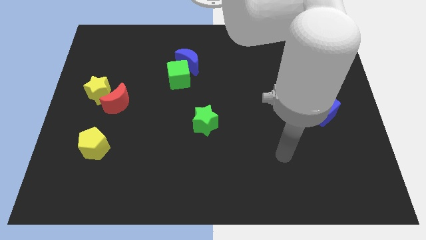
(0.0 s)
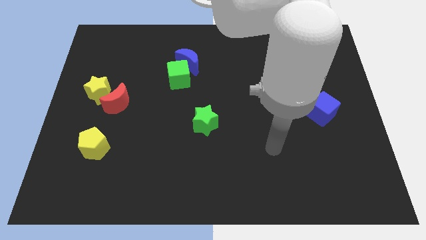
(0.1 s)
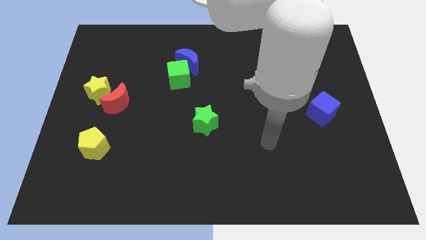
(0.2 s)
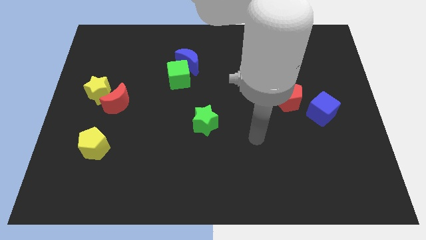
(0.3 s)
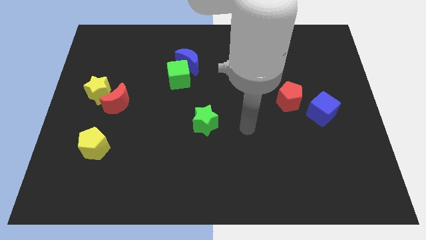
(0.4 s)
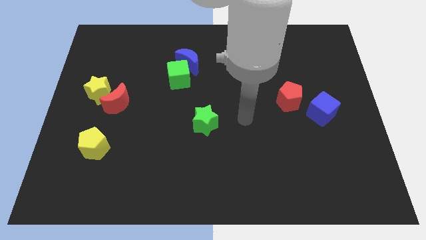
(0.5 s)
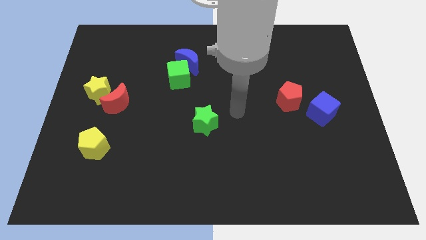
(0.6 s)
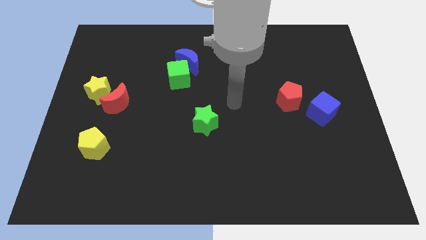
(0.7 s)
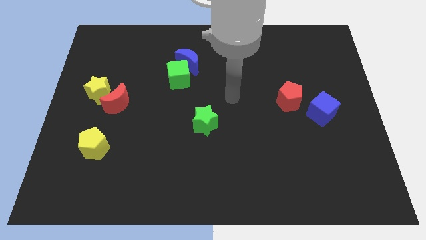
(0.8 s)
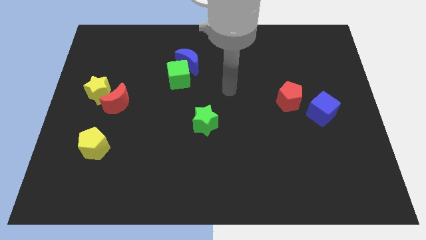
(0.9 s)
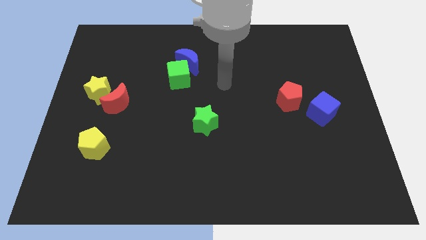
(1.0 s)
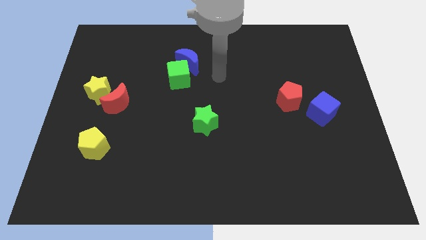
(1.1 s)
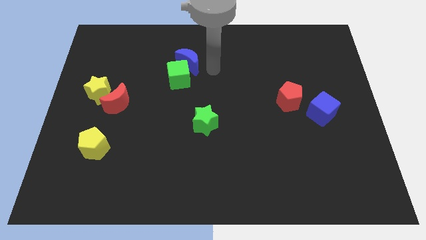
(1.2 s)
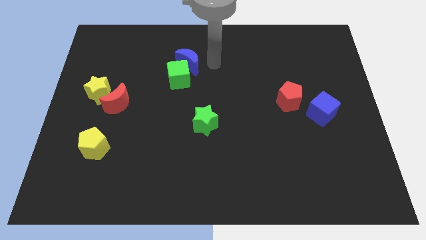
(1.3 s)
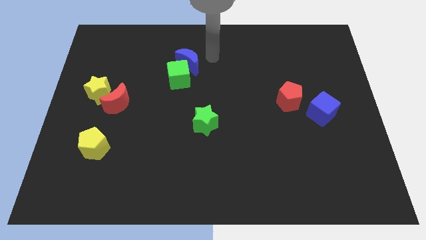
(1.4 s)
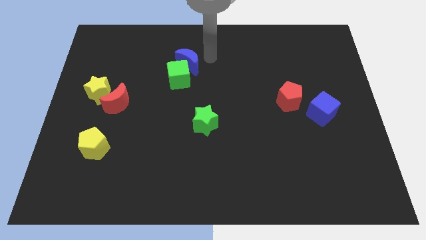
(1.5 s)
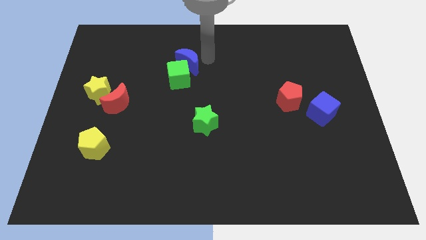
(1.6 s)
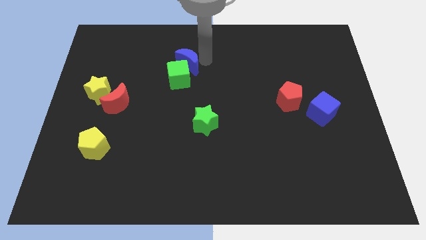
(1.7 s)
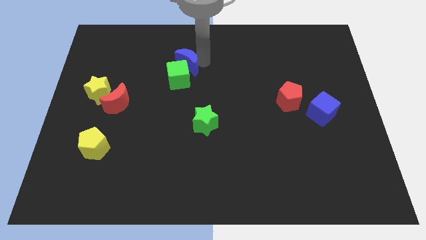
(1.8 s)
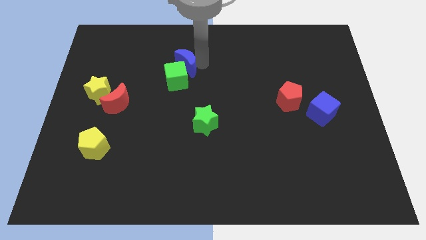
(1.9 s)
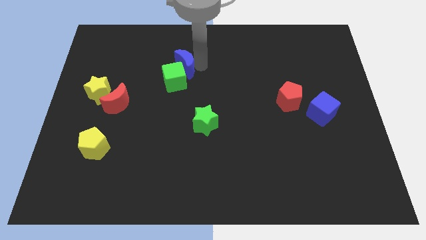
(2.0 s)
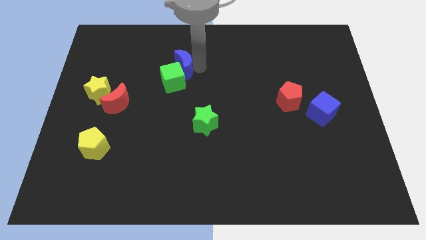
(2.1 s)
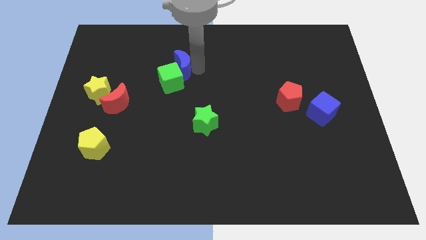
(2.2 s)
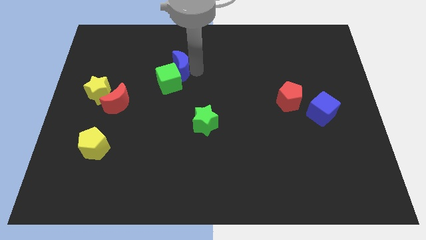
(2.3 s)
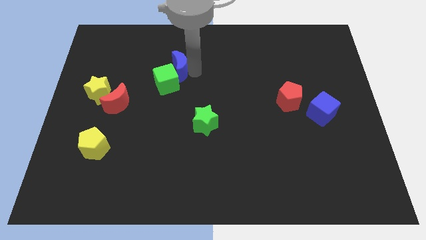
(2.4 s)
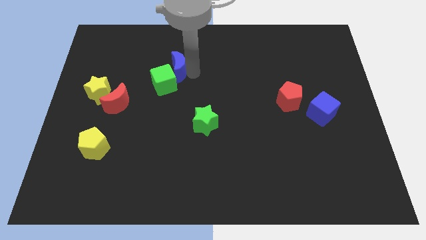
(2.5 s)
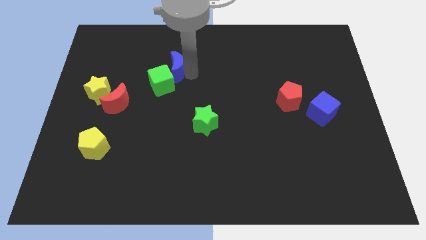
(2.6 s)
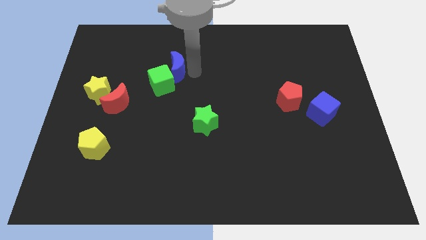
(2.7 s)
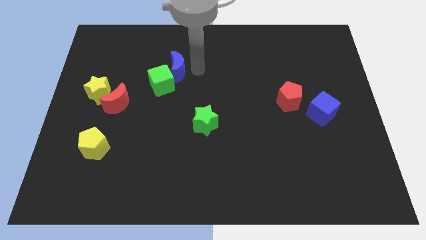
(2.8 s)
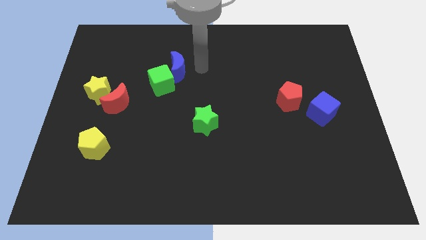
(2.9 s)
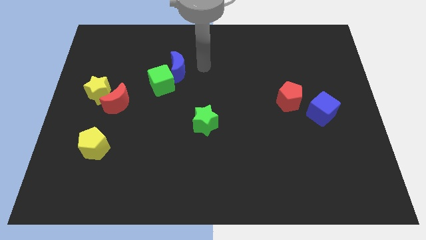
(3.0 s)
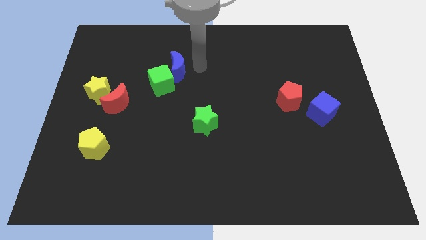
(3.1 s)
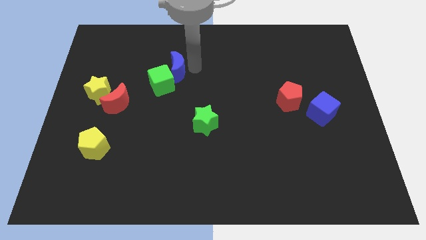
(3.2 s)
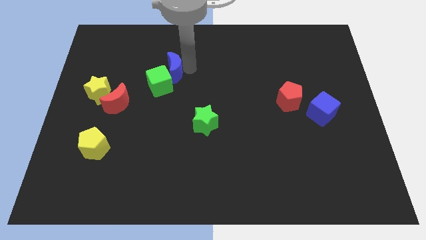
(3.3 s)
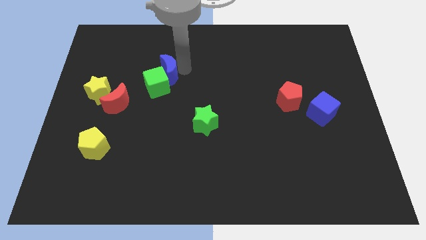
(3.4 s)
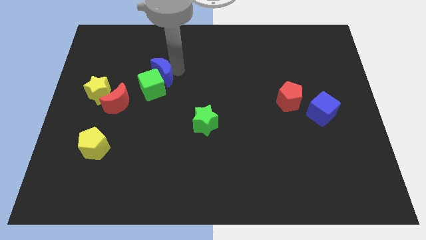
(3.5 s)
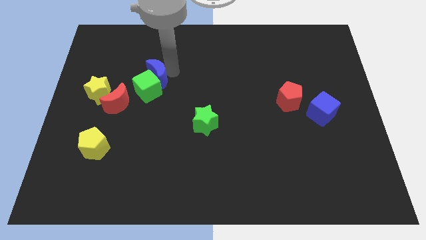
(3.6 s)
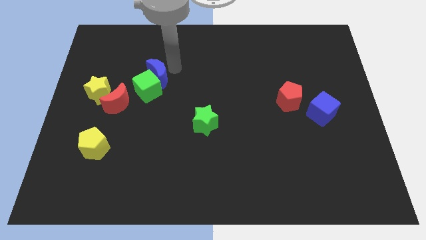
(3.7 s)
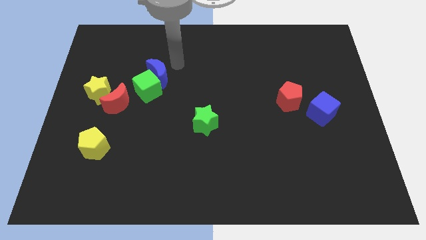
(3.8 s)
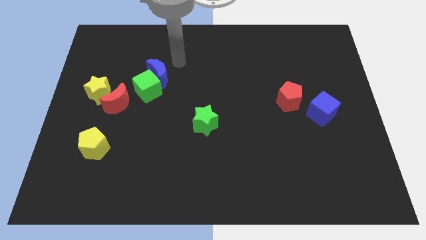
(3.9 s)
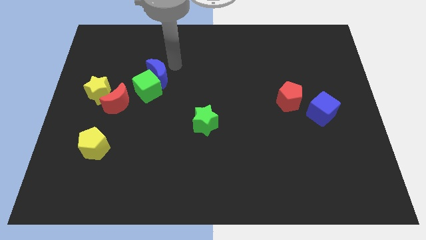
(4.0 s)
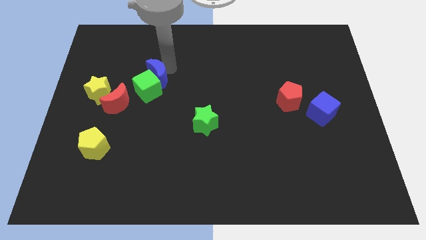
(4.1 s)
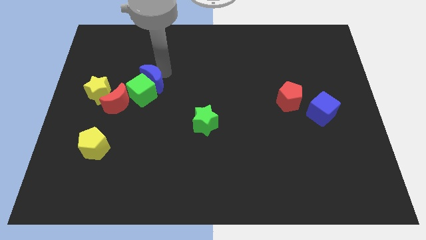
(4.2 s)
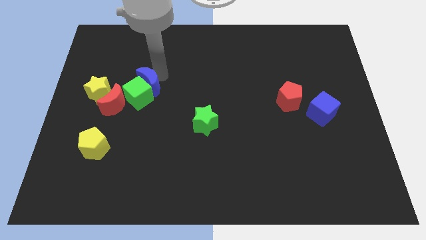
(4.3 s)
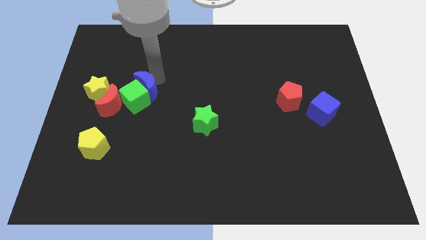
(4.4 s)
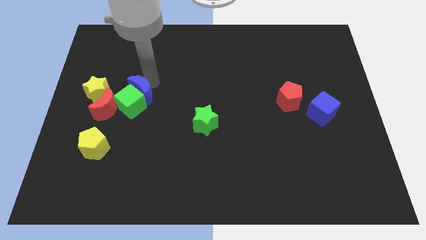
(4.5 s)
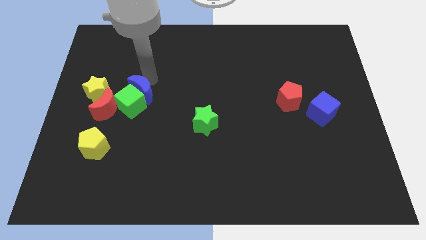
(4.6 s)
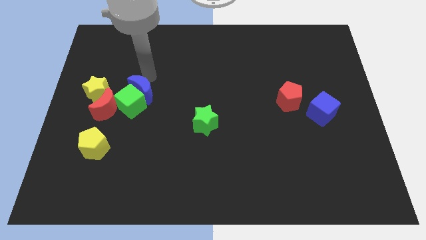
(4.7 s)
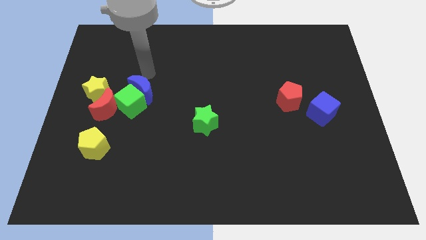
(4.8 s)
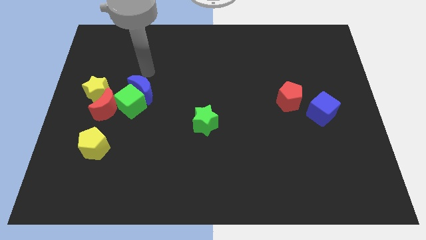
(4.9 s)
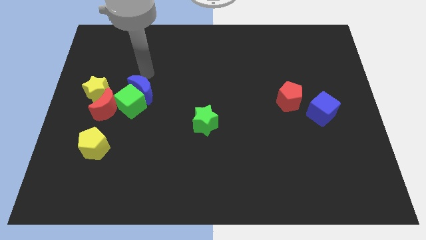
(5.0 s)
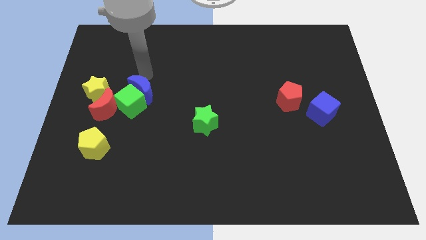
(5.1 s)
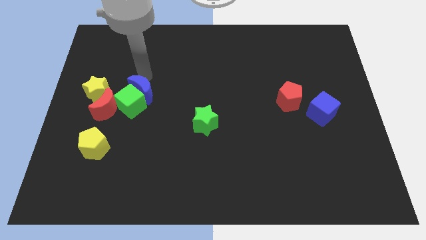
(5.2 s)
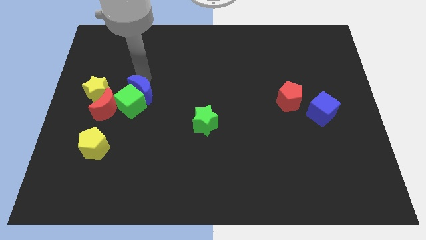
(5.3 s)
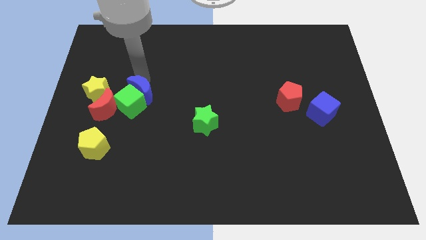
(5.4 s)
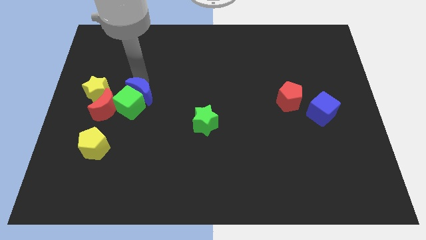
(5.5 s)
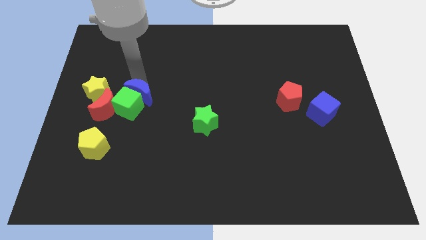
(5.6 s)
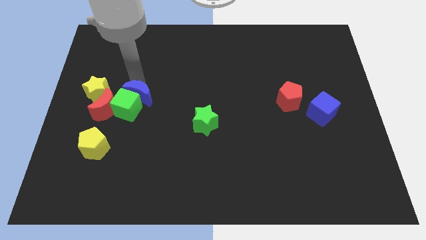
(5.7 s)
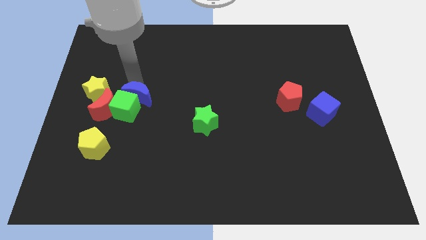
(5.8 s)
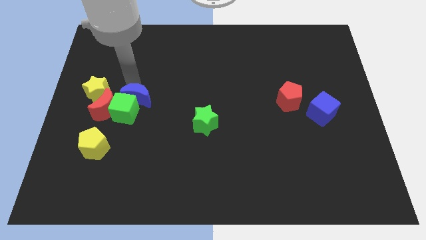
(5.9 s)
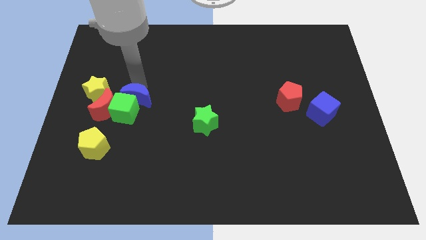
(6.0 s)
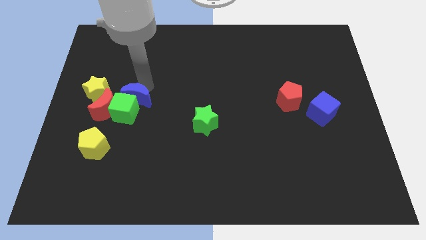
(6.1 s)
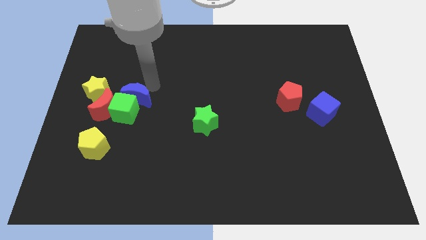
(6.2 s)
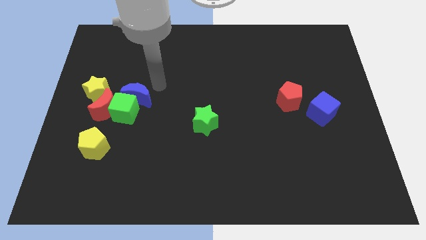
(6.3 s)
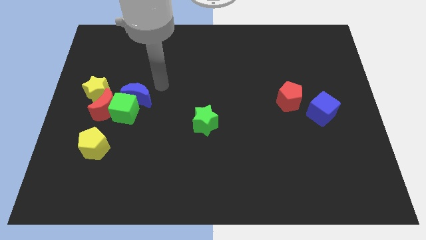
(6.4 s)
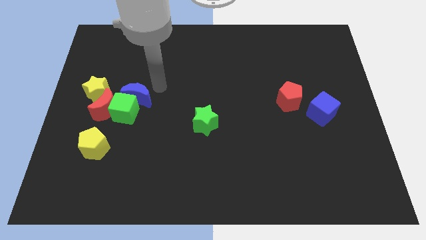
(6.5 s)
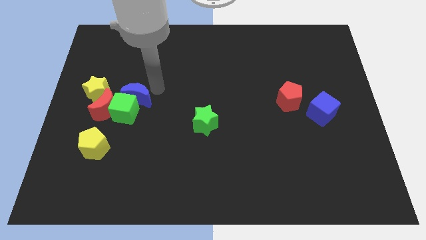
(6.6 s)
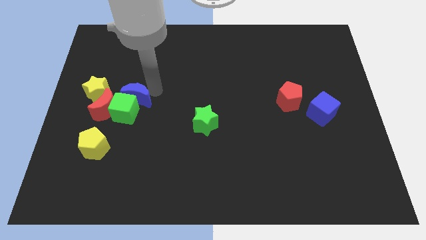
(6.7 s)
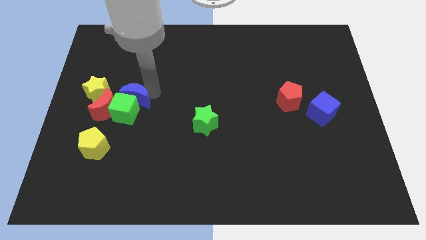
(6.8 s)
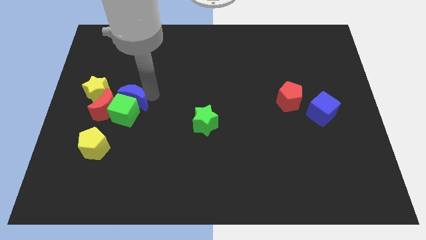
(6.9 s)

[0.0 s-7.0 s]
move the blue moon diagonally down and to the right of the yellow star
